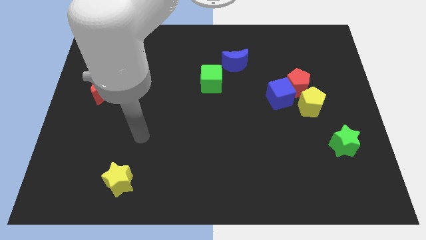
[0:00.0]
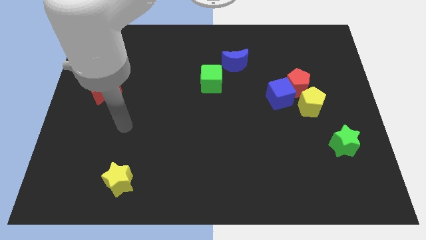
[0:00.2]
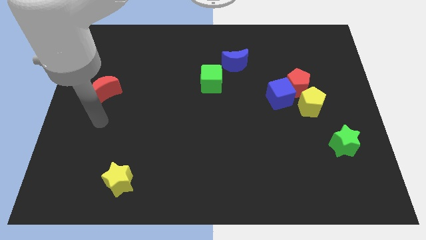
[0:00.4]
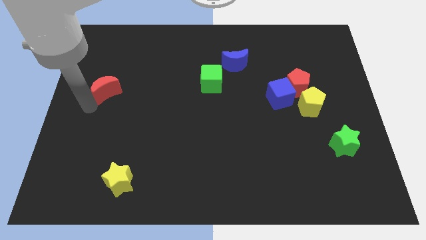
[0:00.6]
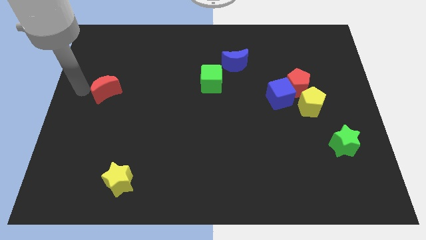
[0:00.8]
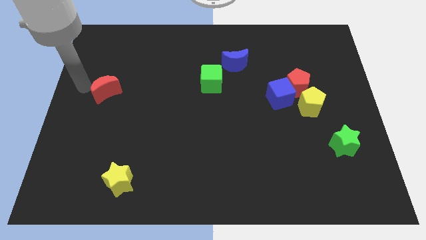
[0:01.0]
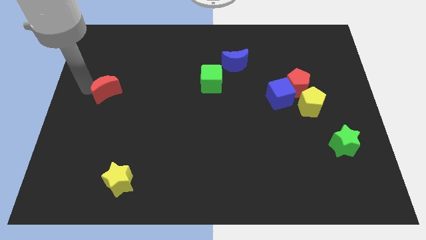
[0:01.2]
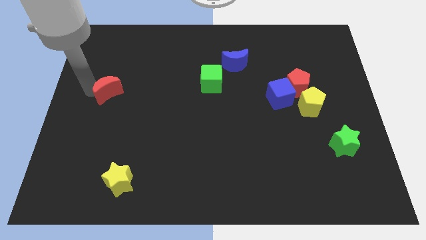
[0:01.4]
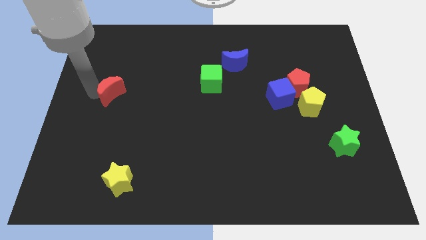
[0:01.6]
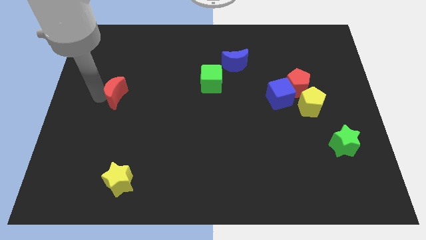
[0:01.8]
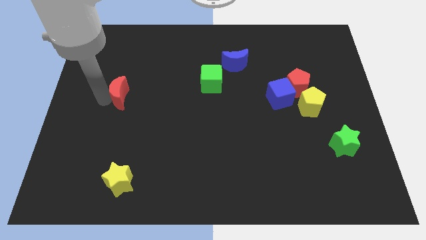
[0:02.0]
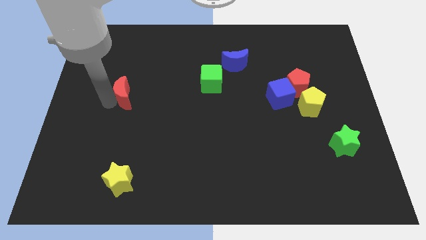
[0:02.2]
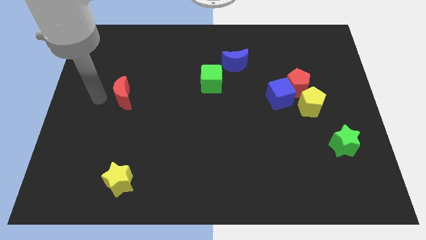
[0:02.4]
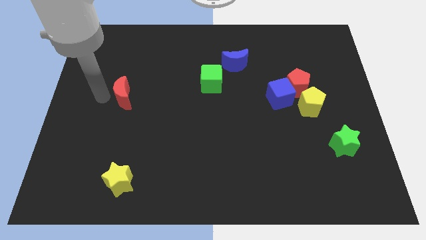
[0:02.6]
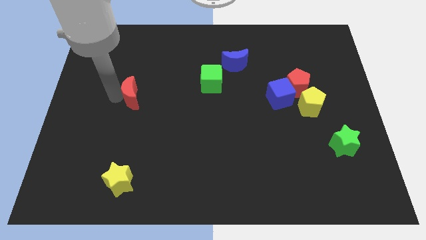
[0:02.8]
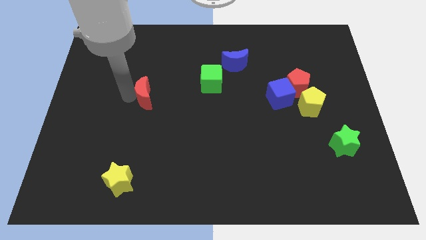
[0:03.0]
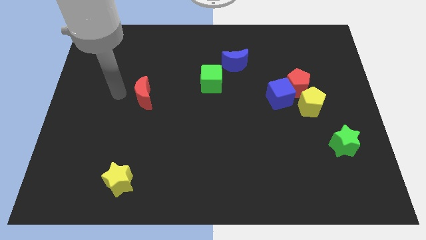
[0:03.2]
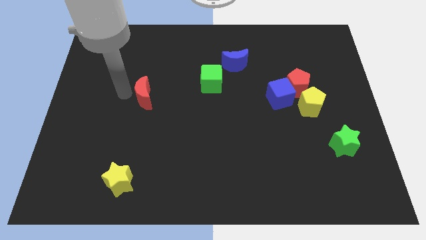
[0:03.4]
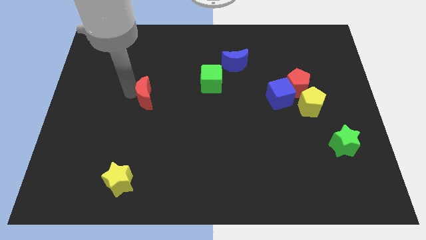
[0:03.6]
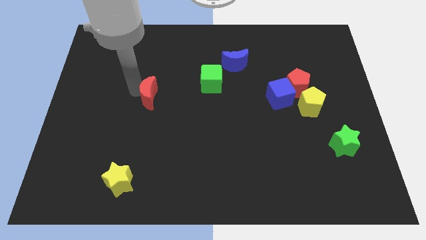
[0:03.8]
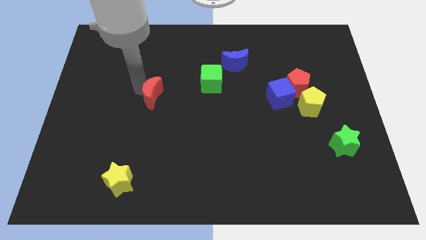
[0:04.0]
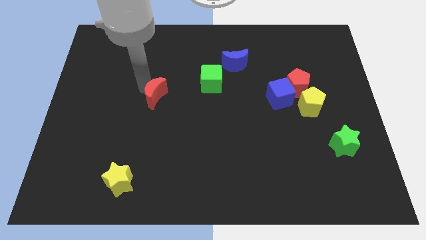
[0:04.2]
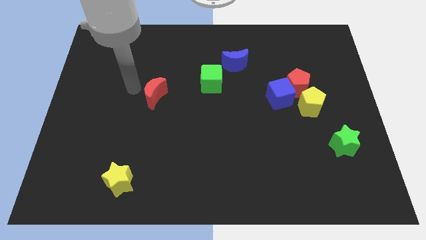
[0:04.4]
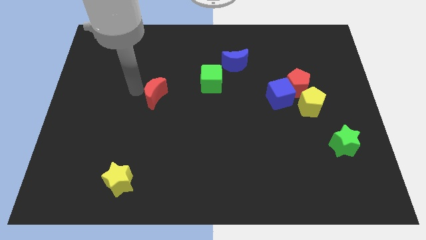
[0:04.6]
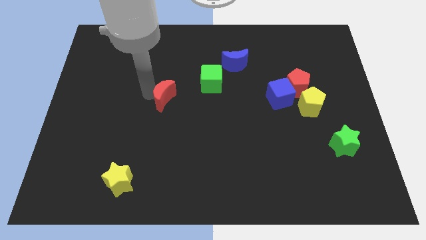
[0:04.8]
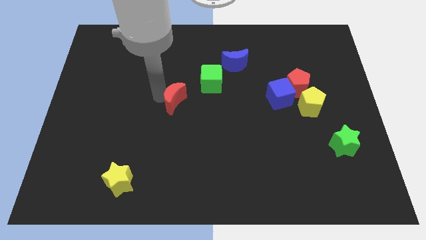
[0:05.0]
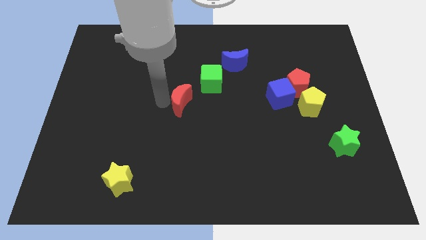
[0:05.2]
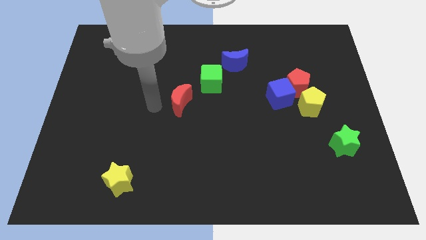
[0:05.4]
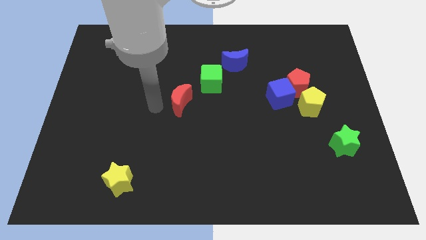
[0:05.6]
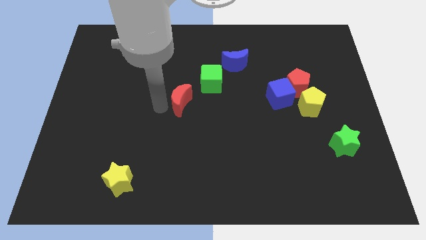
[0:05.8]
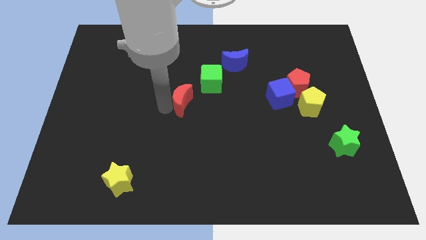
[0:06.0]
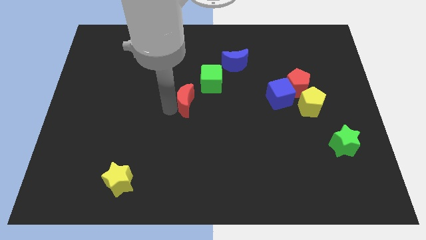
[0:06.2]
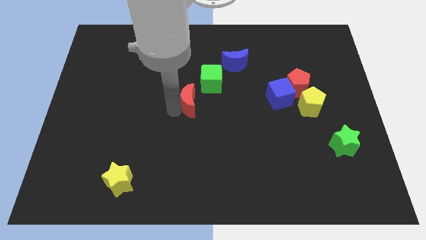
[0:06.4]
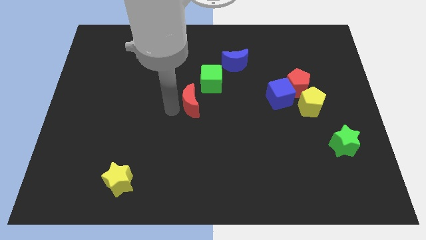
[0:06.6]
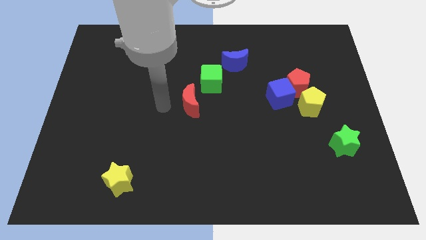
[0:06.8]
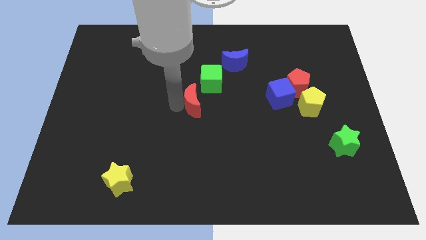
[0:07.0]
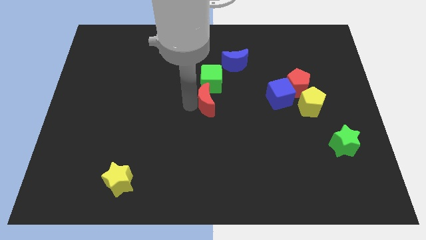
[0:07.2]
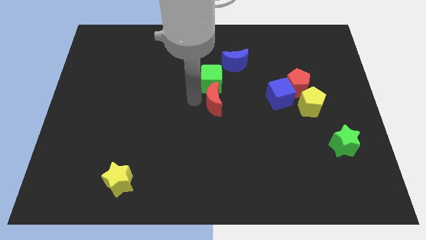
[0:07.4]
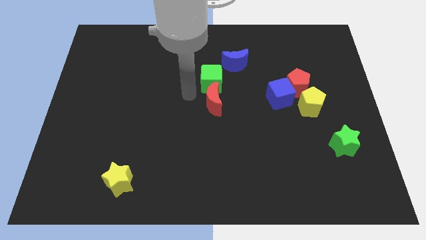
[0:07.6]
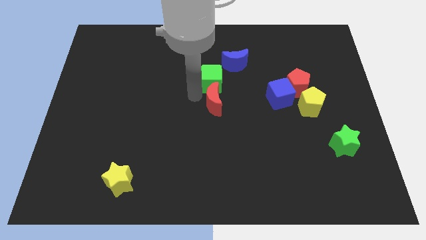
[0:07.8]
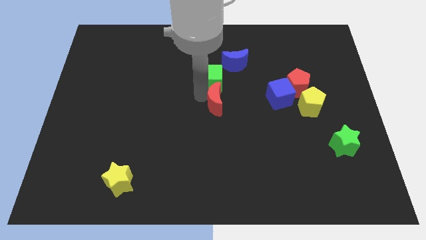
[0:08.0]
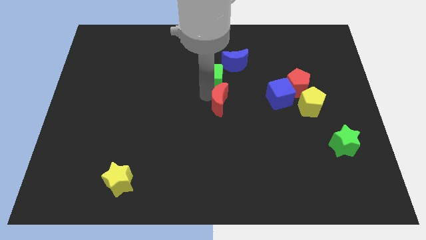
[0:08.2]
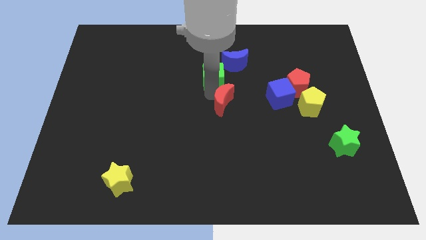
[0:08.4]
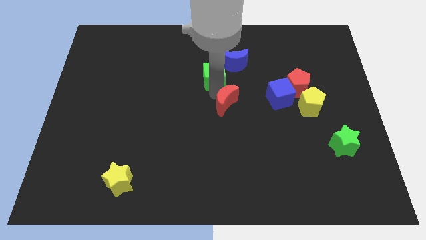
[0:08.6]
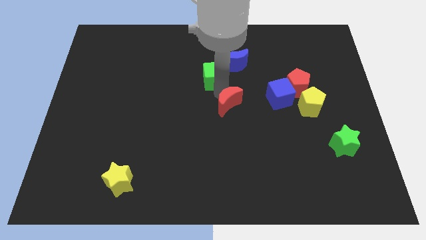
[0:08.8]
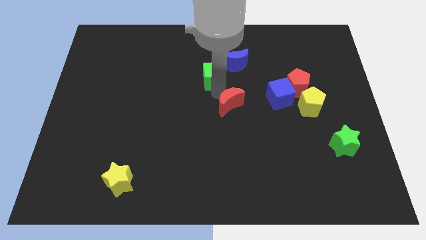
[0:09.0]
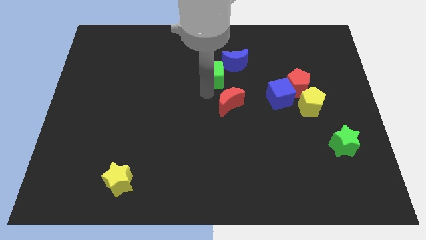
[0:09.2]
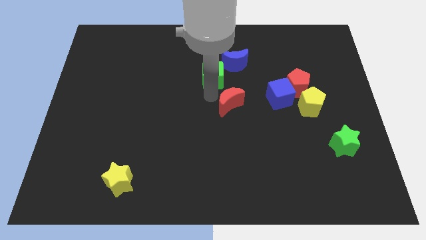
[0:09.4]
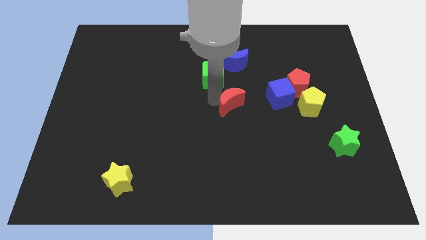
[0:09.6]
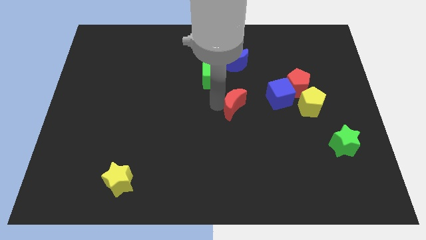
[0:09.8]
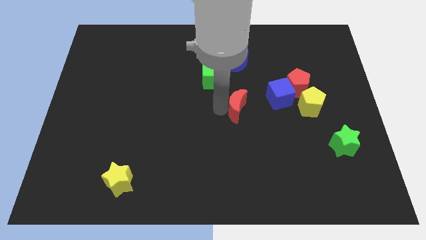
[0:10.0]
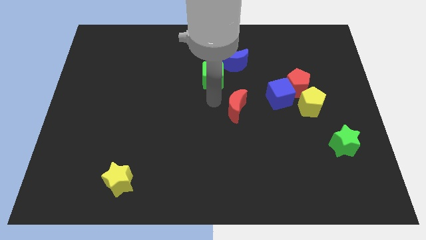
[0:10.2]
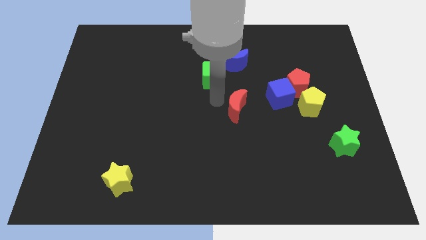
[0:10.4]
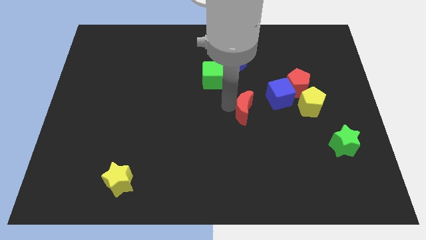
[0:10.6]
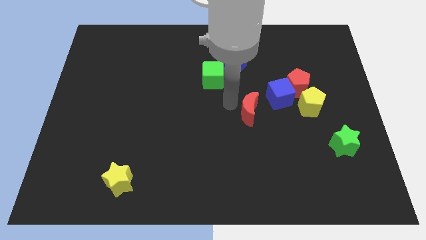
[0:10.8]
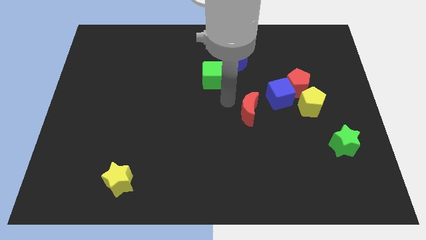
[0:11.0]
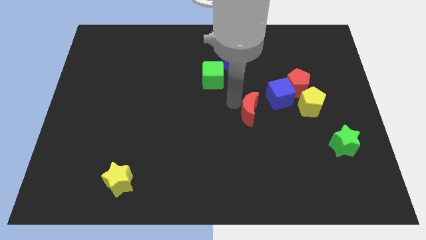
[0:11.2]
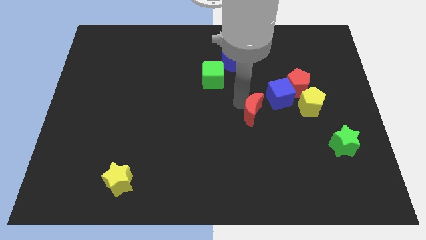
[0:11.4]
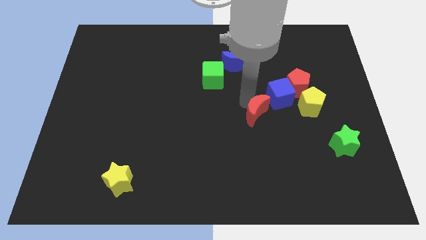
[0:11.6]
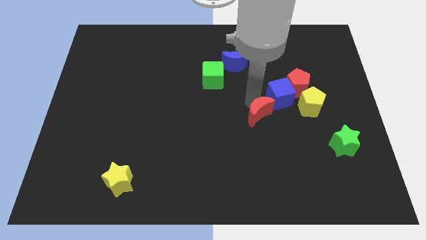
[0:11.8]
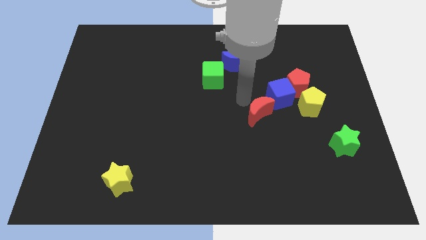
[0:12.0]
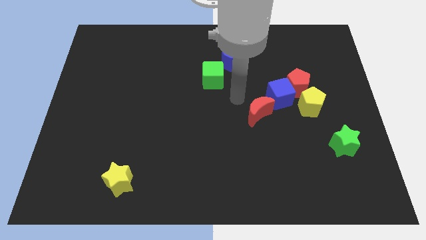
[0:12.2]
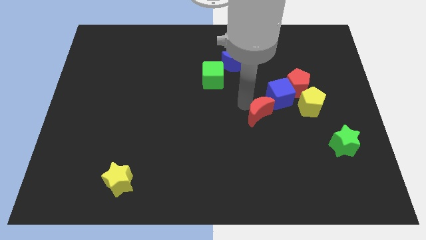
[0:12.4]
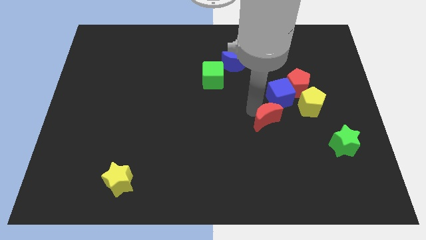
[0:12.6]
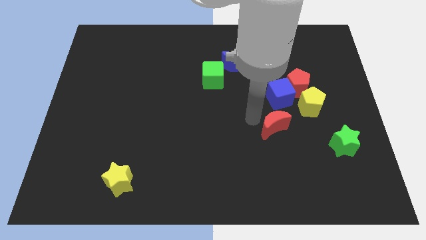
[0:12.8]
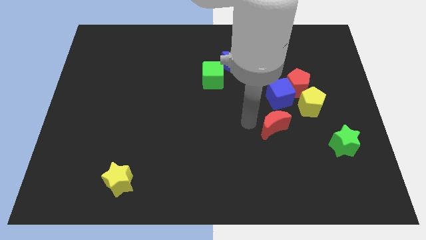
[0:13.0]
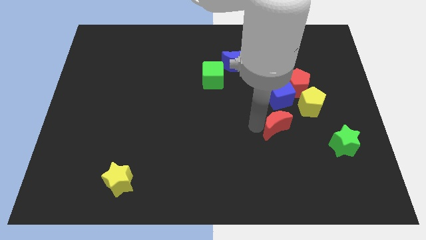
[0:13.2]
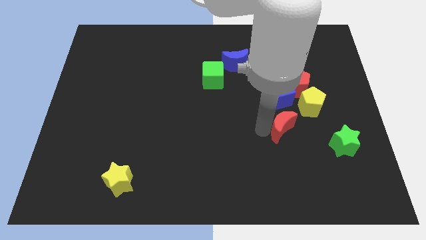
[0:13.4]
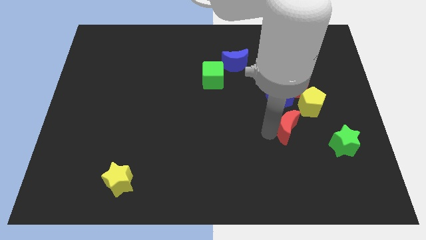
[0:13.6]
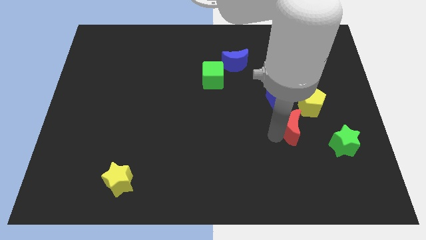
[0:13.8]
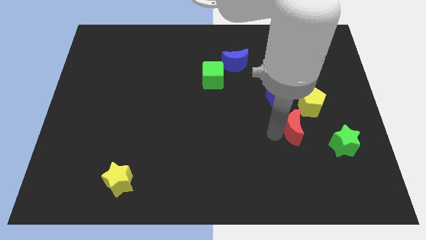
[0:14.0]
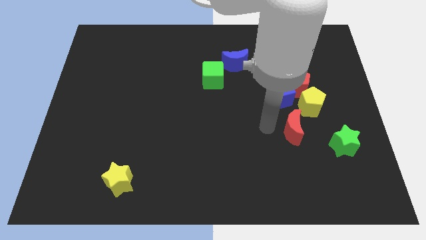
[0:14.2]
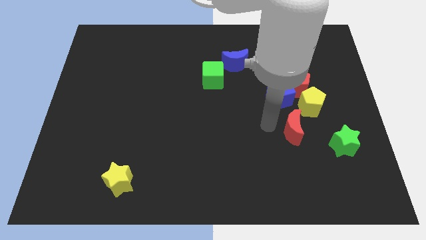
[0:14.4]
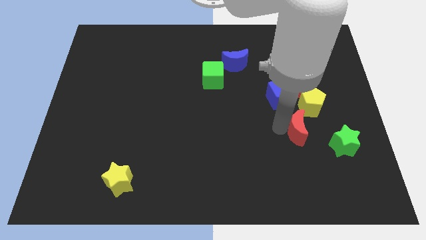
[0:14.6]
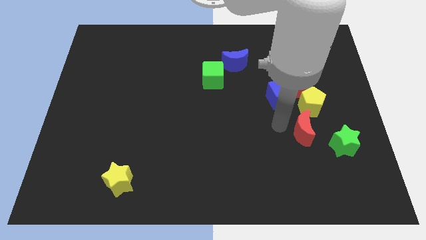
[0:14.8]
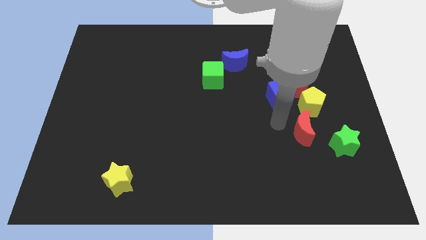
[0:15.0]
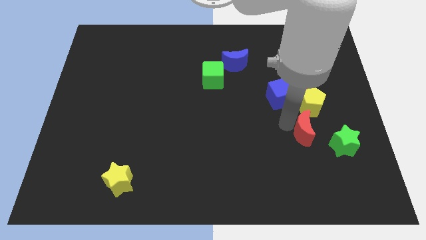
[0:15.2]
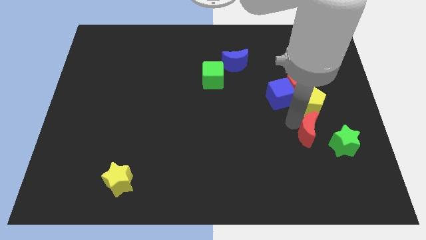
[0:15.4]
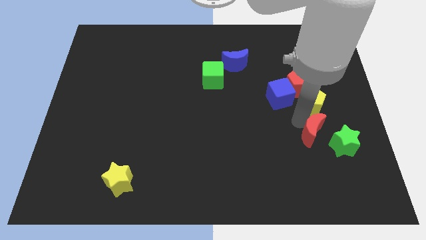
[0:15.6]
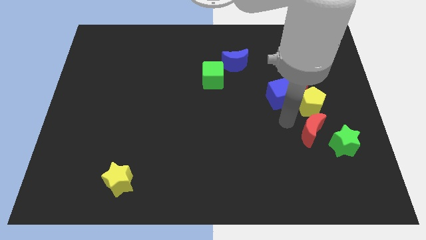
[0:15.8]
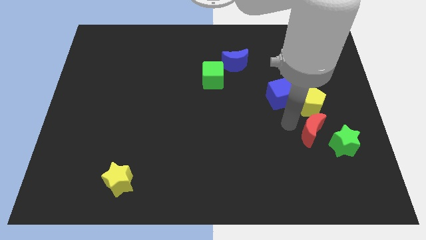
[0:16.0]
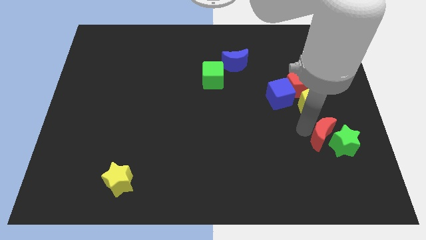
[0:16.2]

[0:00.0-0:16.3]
slide the red moon towards the green star
